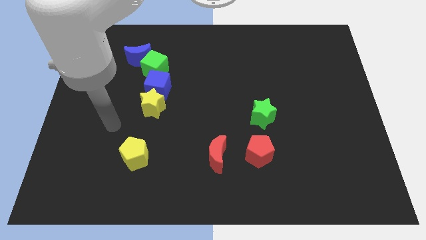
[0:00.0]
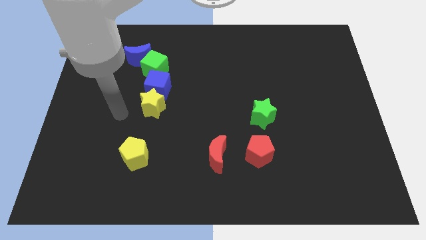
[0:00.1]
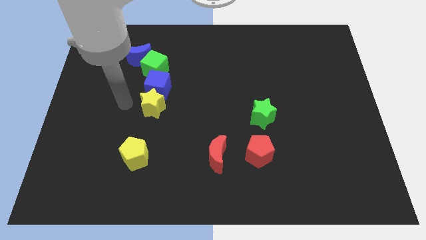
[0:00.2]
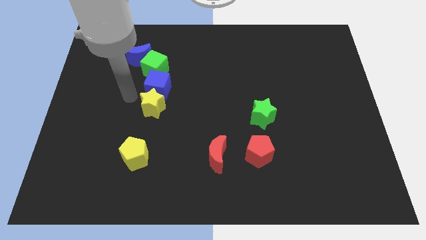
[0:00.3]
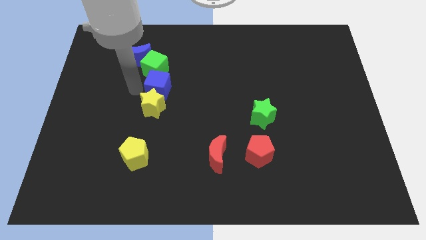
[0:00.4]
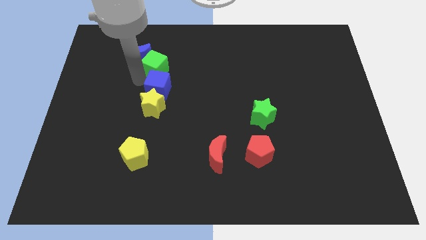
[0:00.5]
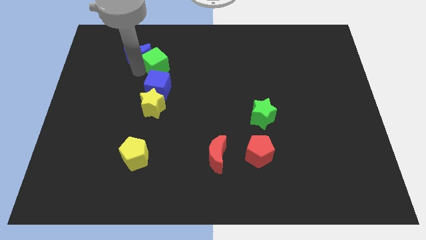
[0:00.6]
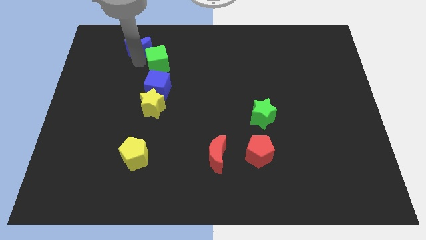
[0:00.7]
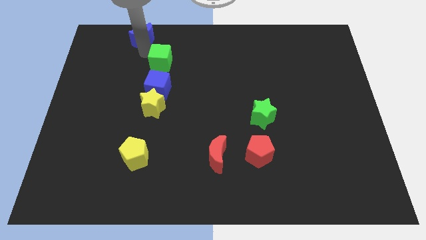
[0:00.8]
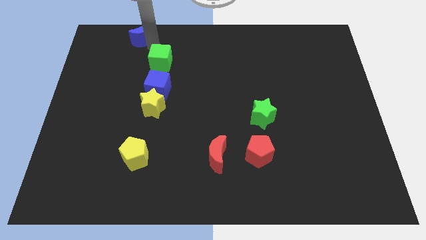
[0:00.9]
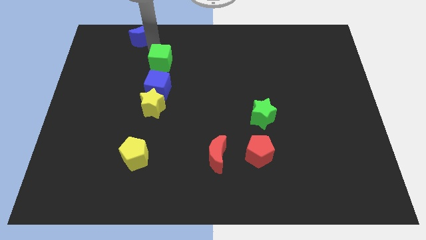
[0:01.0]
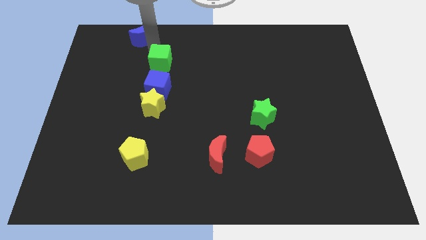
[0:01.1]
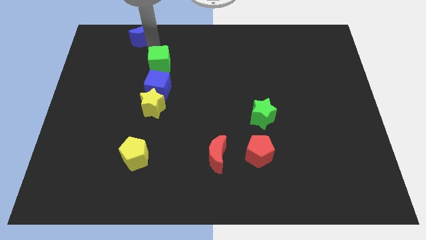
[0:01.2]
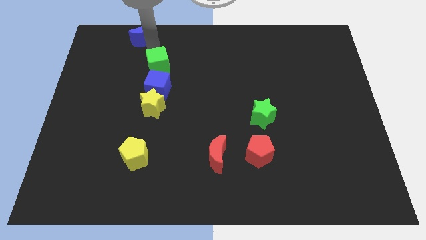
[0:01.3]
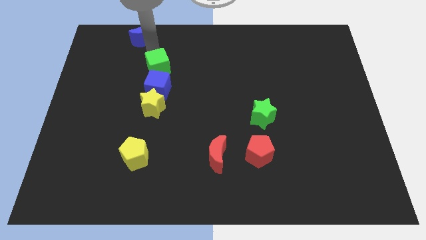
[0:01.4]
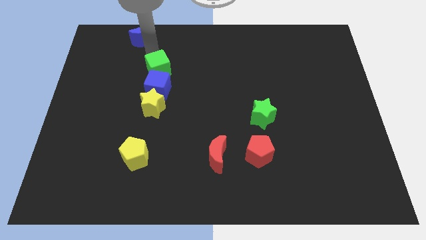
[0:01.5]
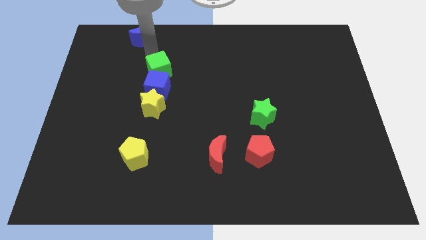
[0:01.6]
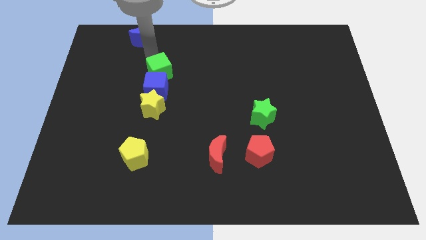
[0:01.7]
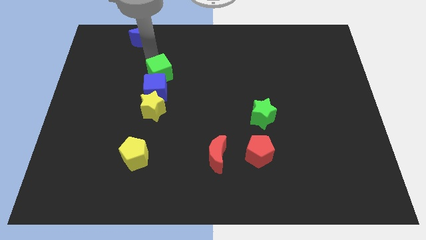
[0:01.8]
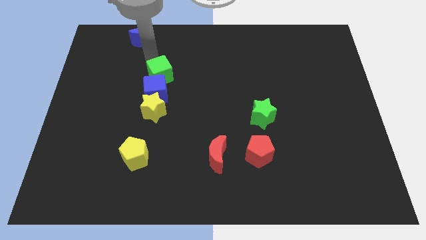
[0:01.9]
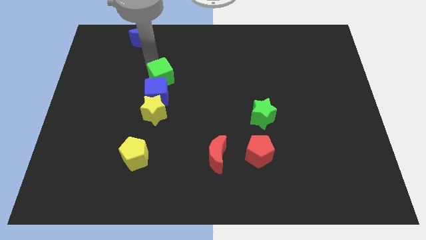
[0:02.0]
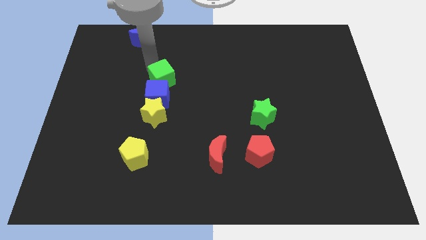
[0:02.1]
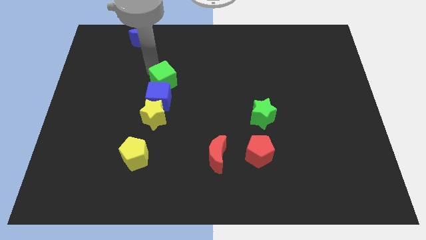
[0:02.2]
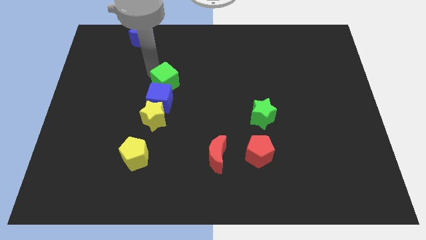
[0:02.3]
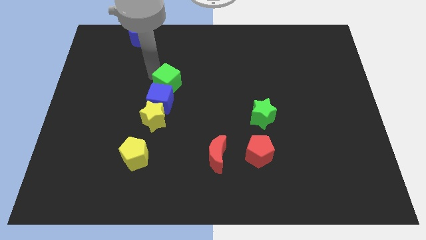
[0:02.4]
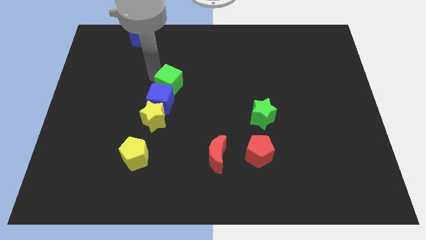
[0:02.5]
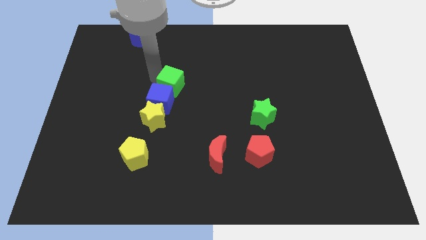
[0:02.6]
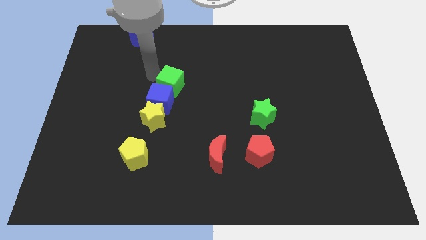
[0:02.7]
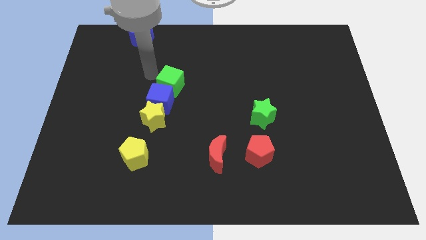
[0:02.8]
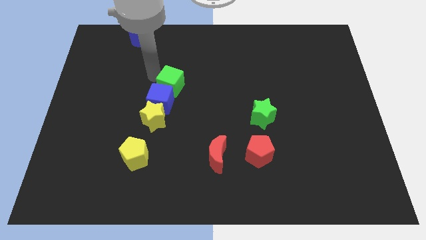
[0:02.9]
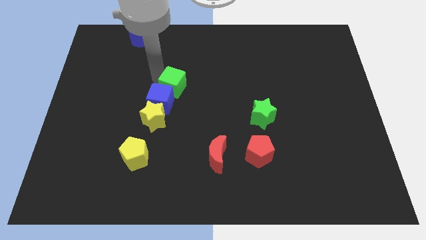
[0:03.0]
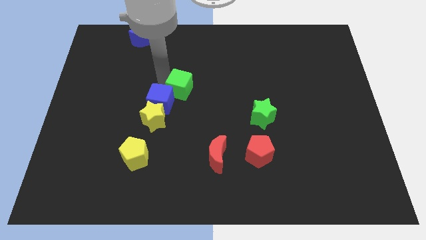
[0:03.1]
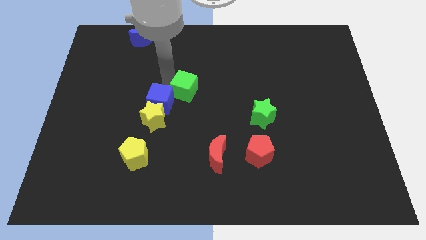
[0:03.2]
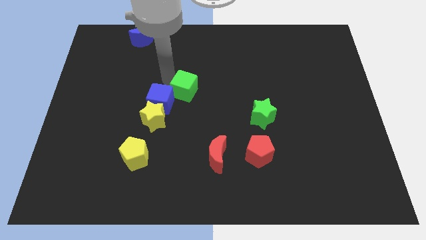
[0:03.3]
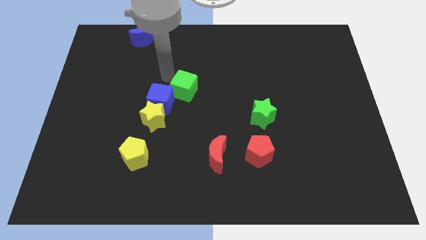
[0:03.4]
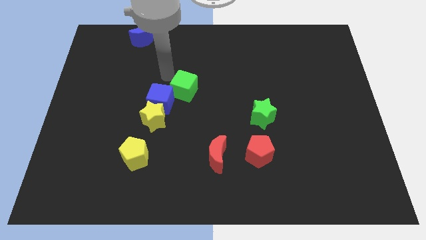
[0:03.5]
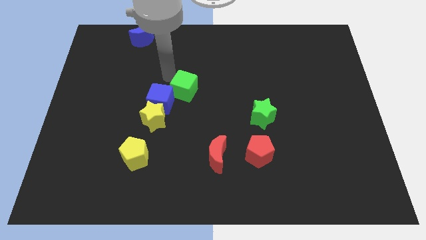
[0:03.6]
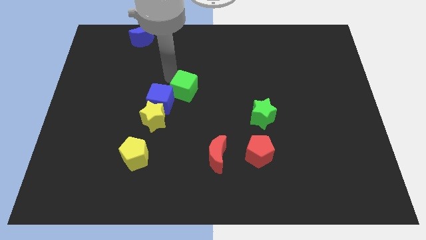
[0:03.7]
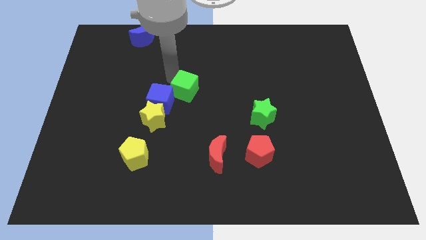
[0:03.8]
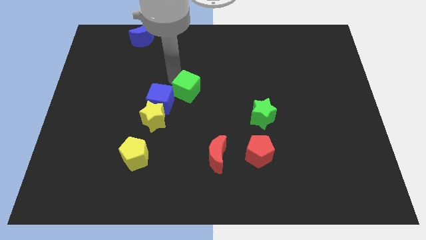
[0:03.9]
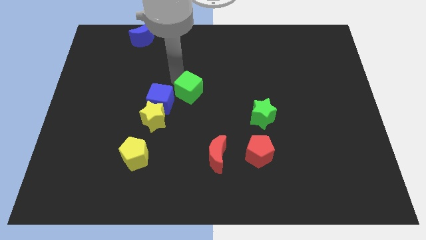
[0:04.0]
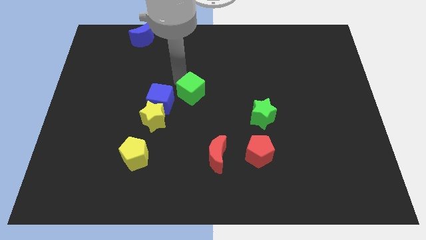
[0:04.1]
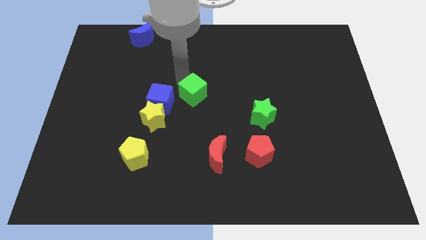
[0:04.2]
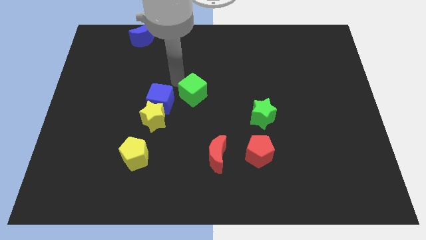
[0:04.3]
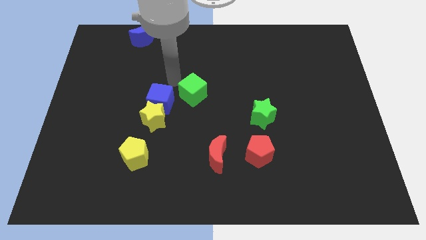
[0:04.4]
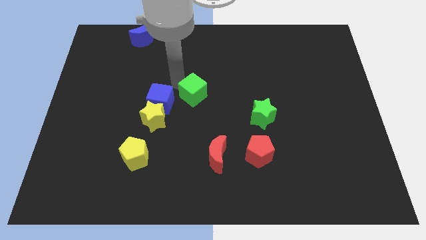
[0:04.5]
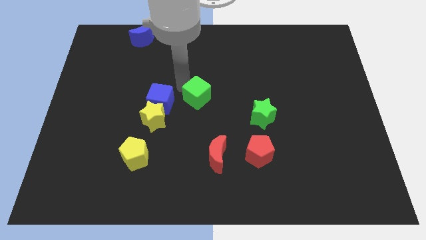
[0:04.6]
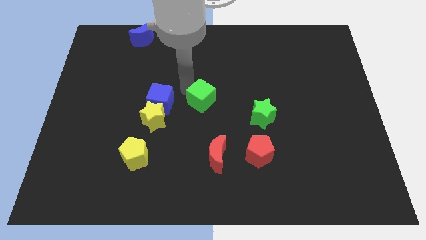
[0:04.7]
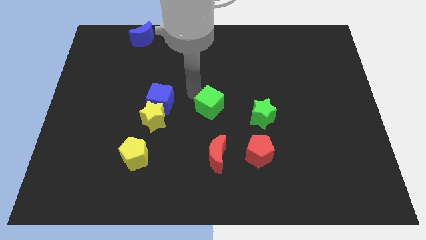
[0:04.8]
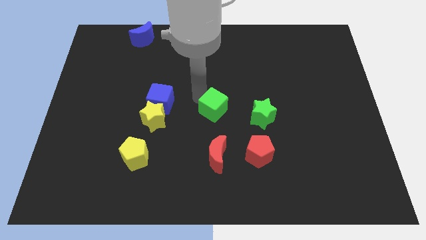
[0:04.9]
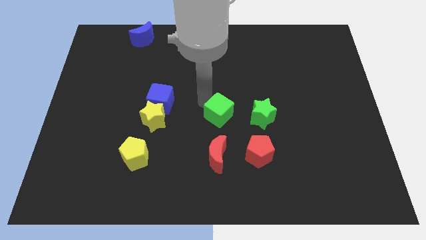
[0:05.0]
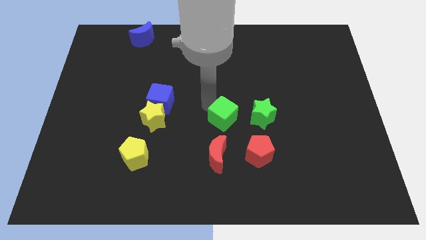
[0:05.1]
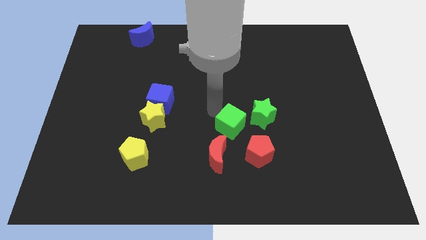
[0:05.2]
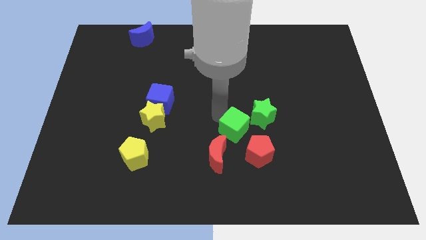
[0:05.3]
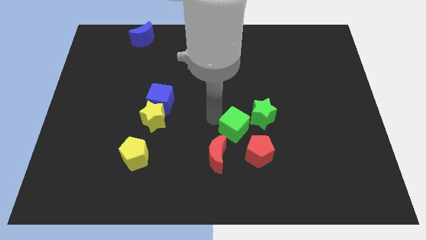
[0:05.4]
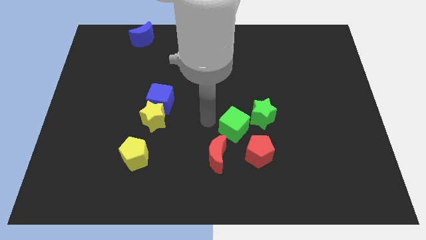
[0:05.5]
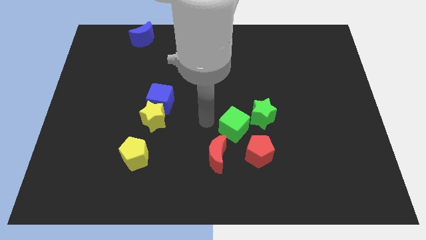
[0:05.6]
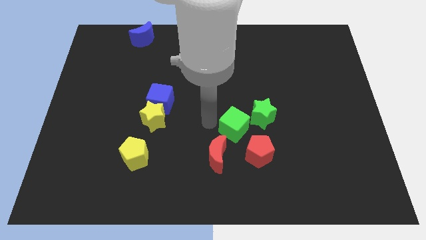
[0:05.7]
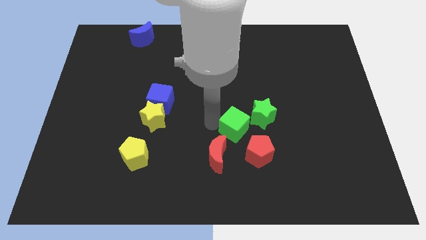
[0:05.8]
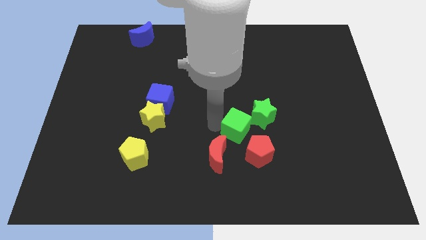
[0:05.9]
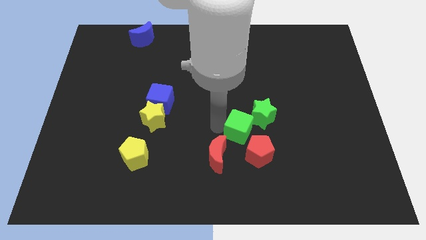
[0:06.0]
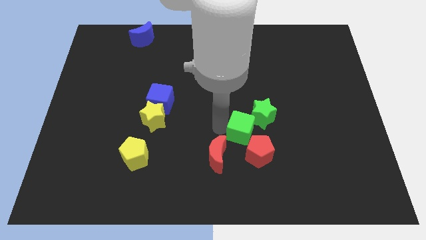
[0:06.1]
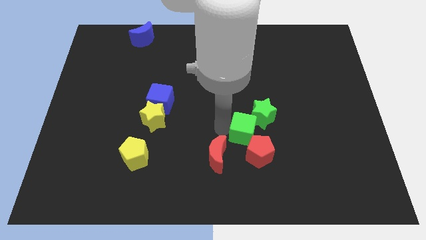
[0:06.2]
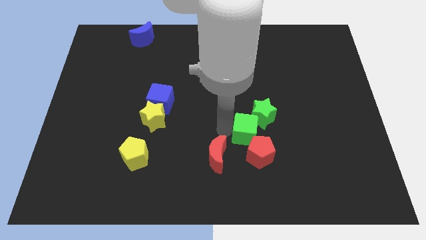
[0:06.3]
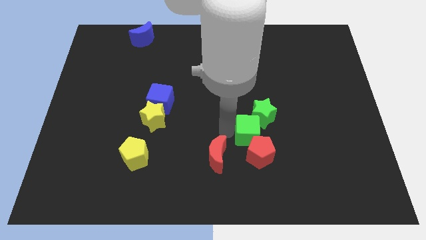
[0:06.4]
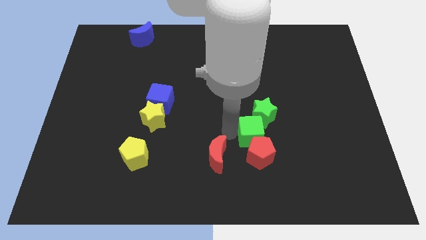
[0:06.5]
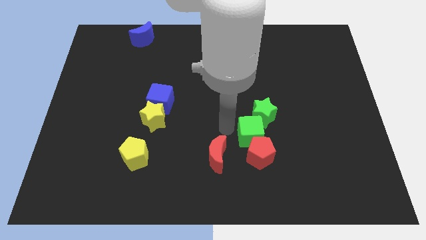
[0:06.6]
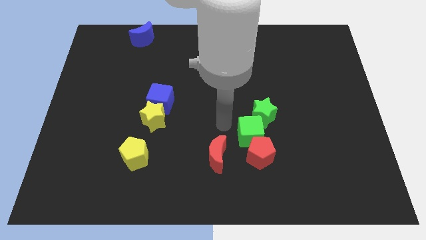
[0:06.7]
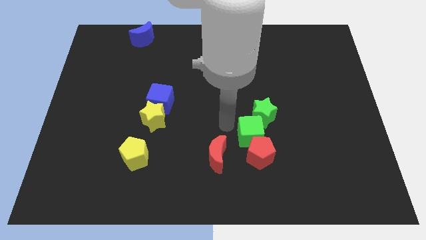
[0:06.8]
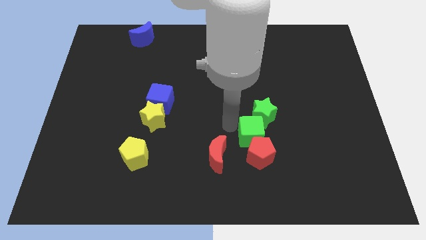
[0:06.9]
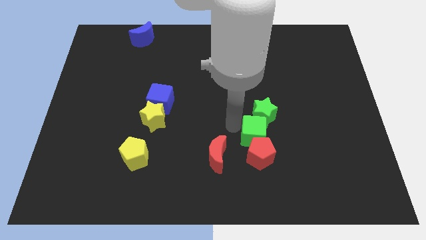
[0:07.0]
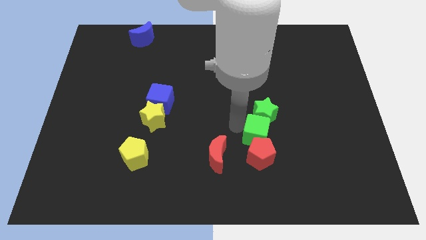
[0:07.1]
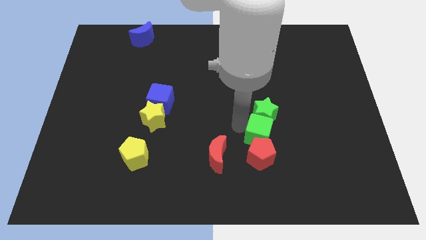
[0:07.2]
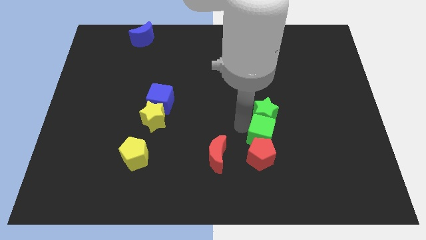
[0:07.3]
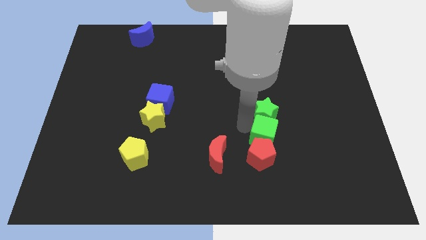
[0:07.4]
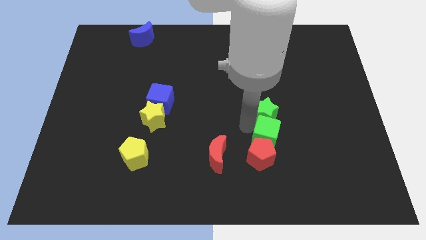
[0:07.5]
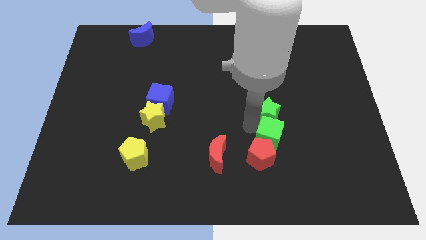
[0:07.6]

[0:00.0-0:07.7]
put the green cube just right of the red moon

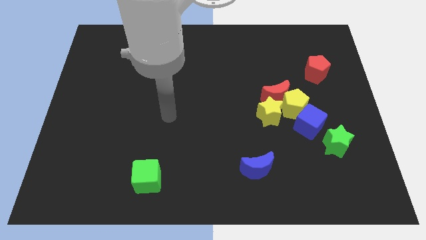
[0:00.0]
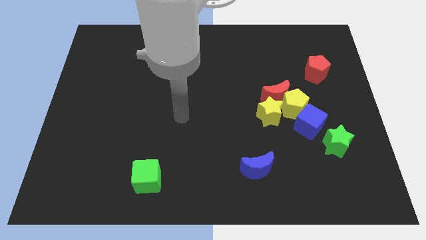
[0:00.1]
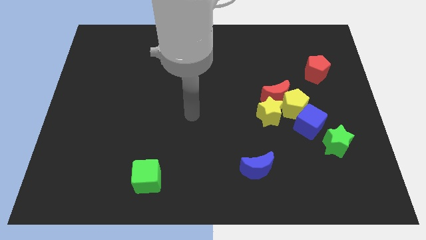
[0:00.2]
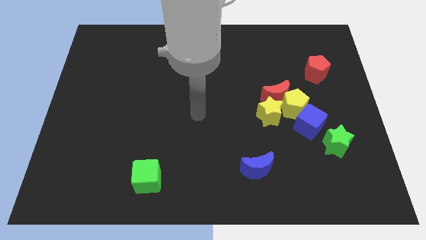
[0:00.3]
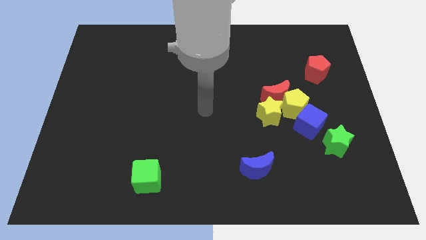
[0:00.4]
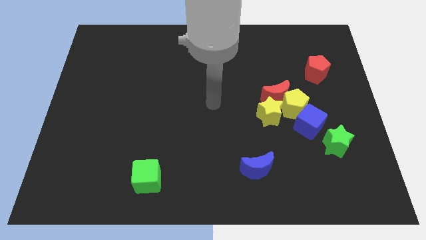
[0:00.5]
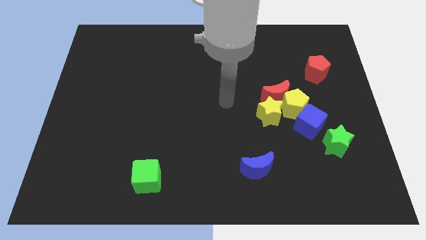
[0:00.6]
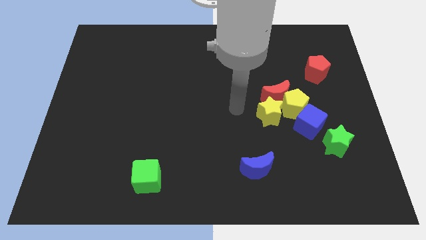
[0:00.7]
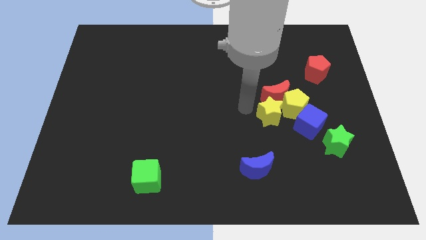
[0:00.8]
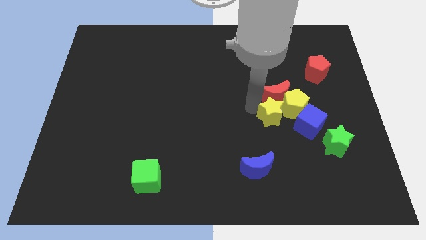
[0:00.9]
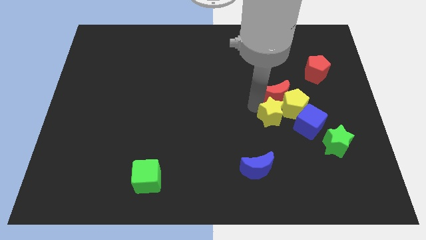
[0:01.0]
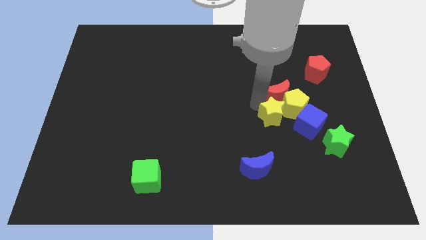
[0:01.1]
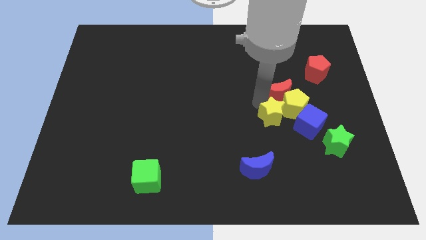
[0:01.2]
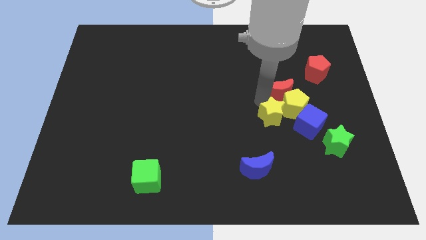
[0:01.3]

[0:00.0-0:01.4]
move the red moon to the bottom left side of the red pentagon
